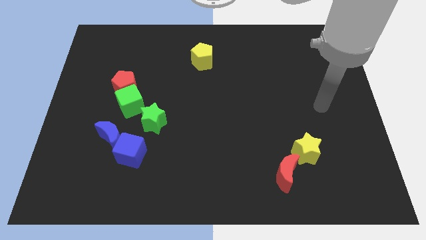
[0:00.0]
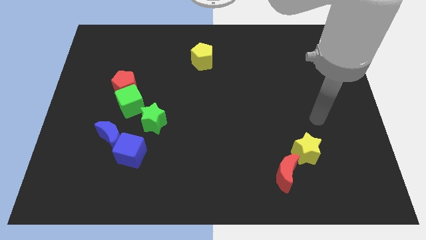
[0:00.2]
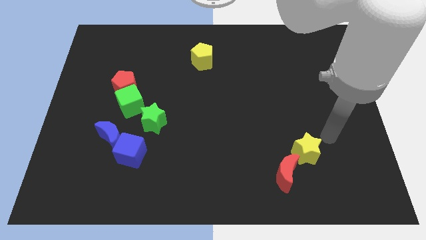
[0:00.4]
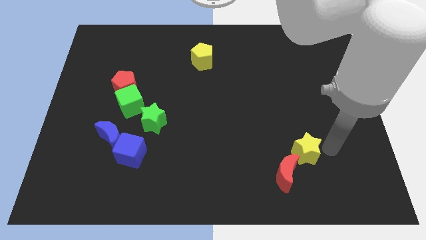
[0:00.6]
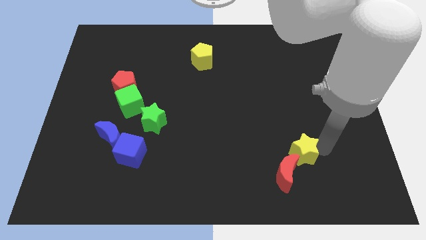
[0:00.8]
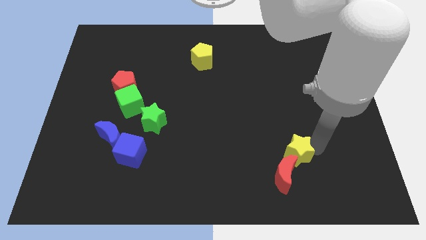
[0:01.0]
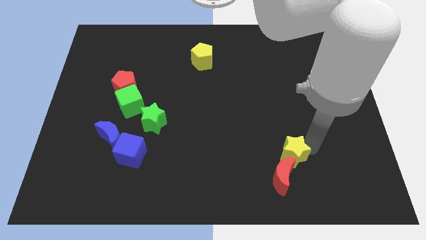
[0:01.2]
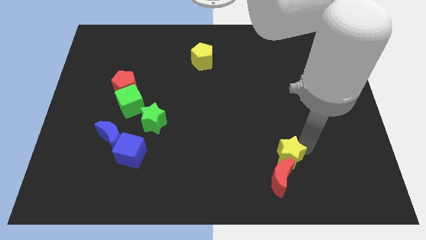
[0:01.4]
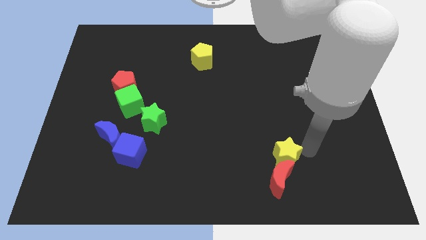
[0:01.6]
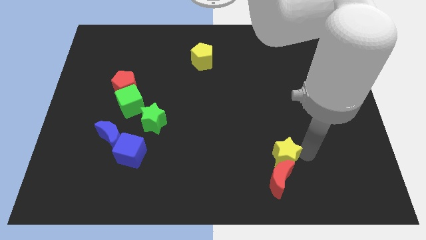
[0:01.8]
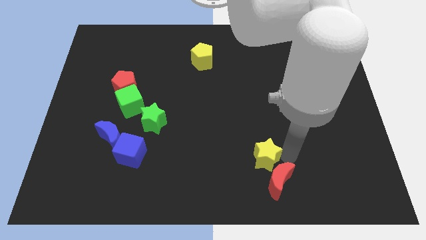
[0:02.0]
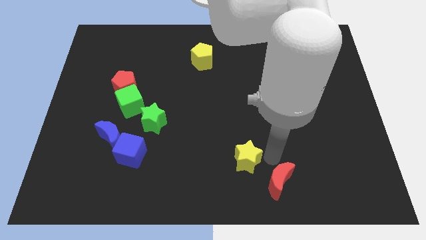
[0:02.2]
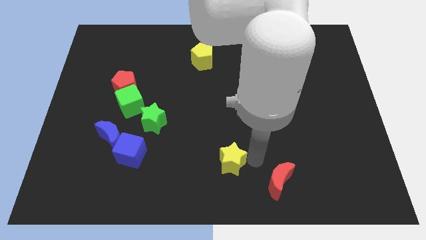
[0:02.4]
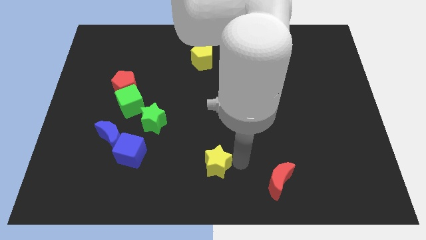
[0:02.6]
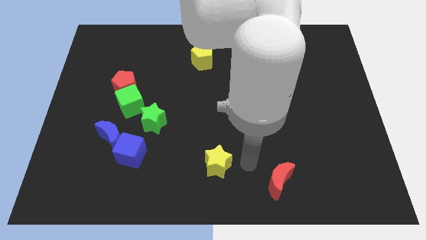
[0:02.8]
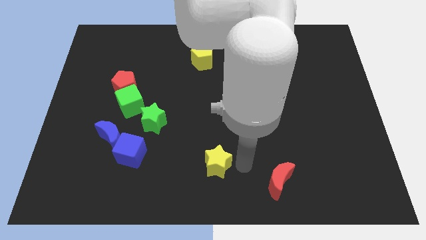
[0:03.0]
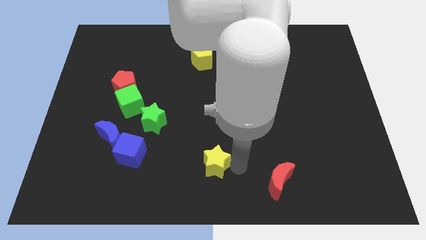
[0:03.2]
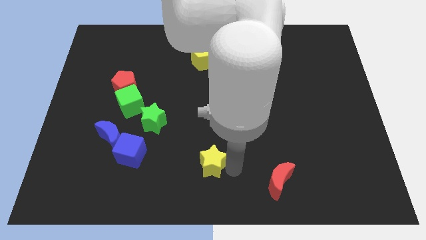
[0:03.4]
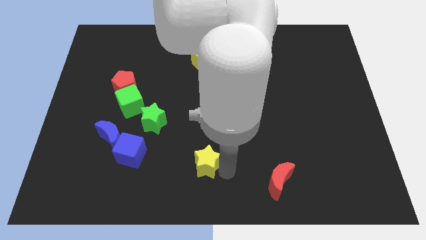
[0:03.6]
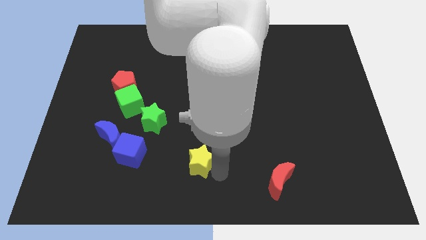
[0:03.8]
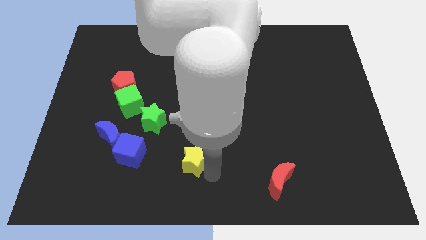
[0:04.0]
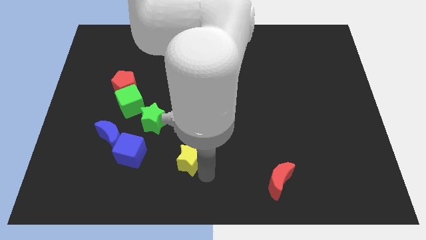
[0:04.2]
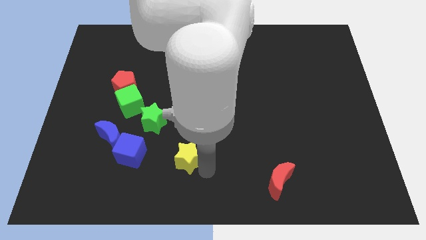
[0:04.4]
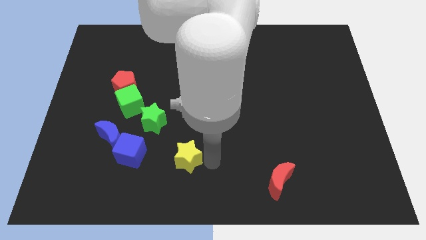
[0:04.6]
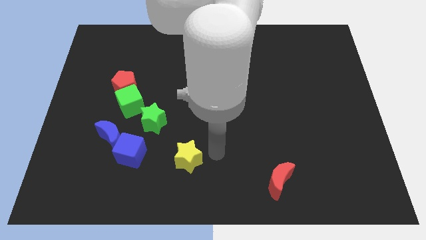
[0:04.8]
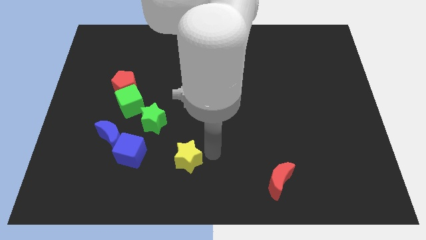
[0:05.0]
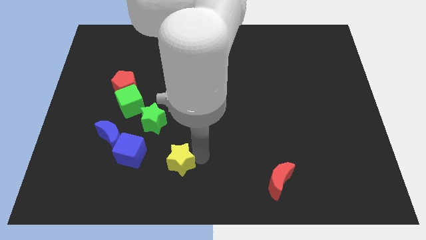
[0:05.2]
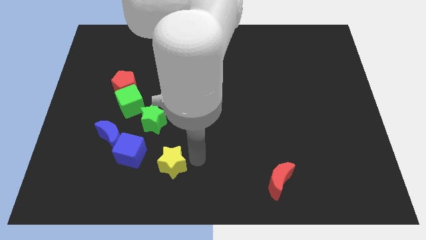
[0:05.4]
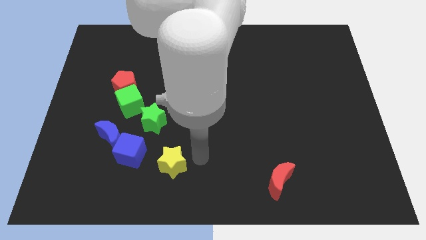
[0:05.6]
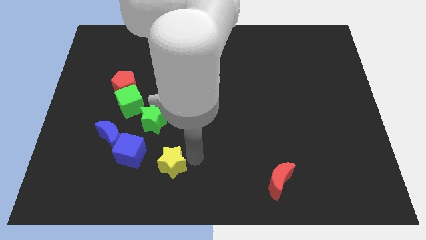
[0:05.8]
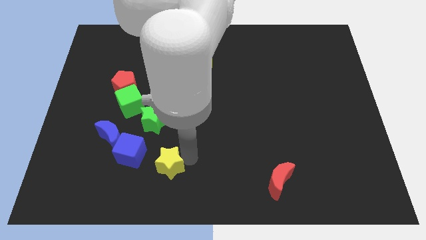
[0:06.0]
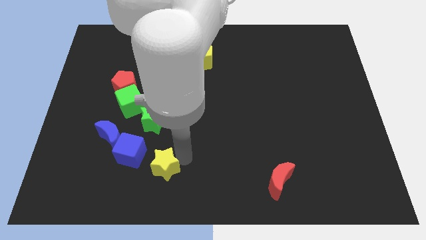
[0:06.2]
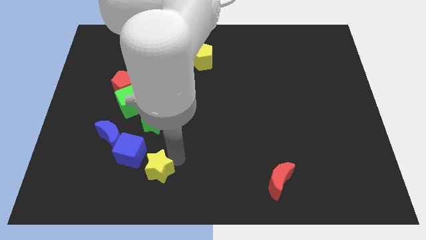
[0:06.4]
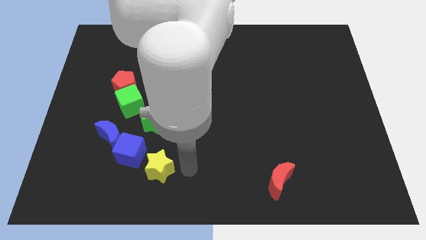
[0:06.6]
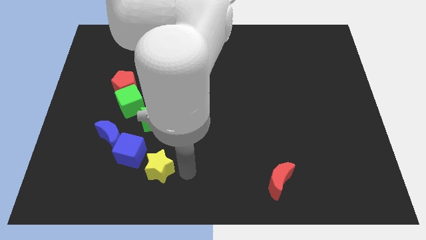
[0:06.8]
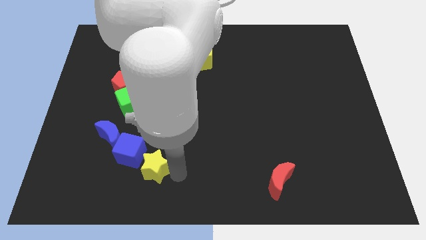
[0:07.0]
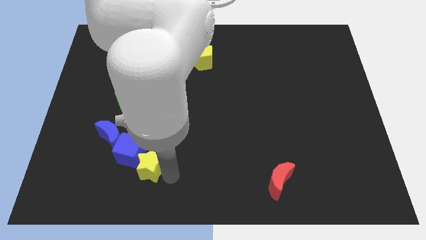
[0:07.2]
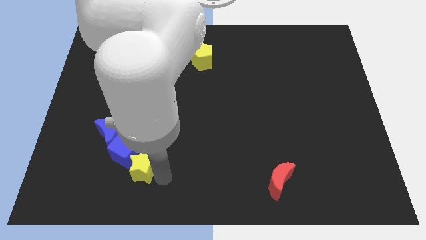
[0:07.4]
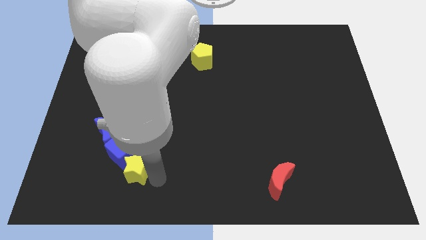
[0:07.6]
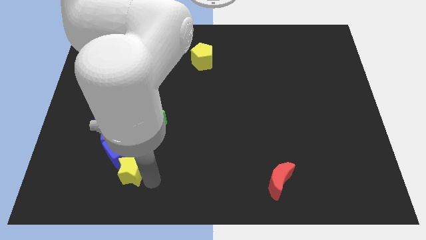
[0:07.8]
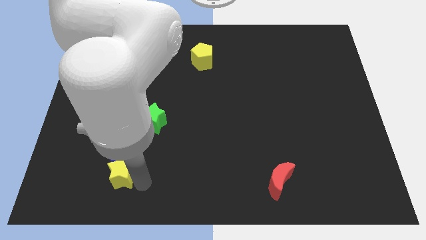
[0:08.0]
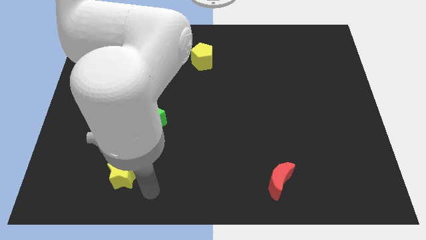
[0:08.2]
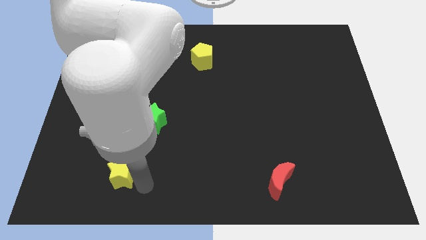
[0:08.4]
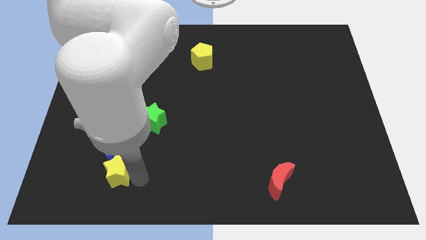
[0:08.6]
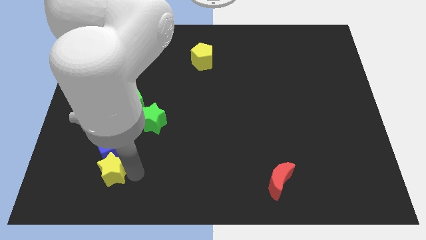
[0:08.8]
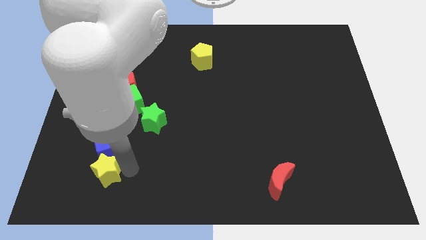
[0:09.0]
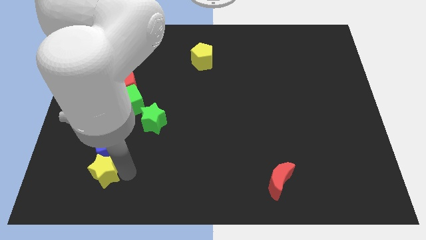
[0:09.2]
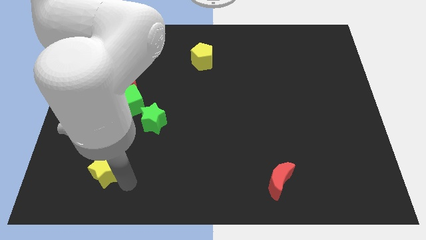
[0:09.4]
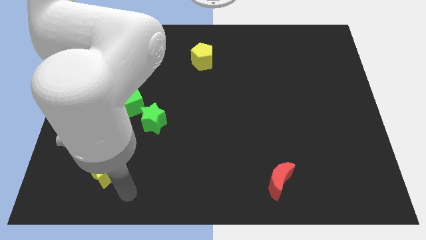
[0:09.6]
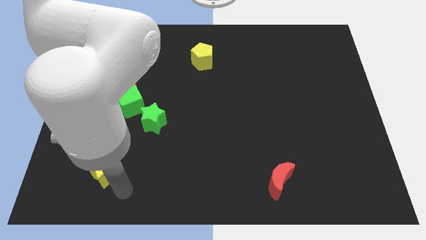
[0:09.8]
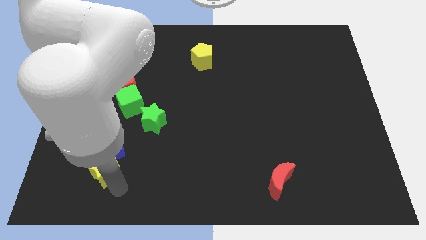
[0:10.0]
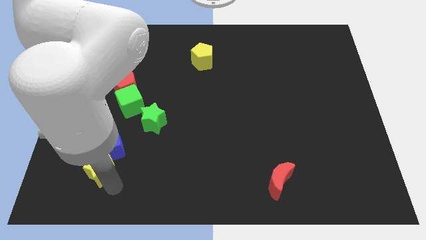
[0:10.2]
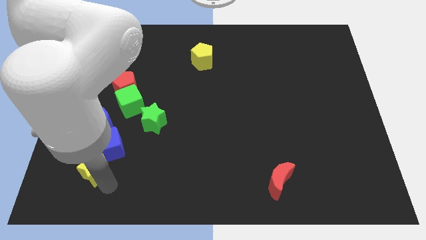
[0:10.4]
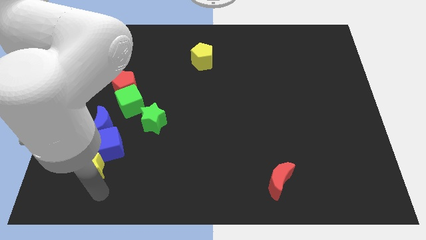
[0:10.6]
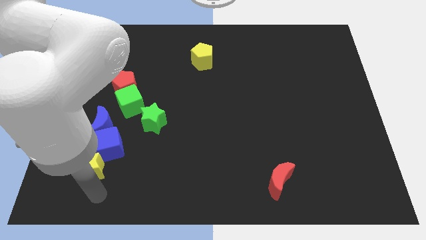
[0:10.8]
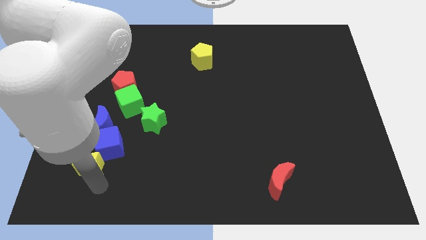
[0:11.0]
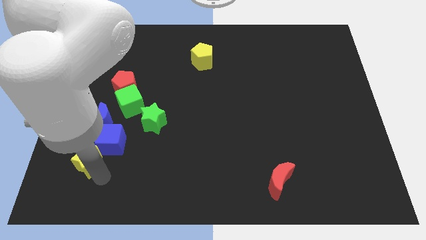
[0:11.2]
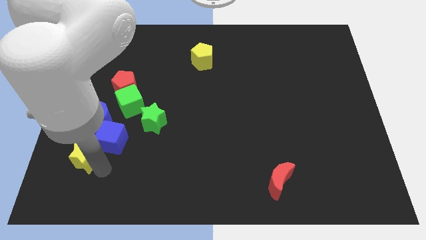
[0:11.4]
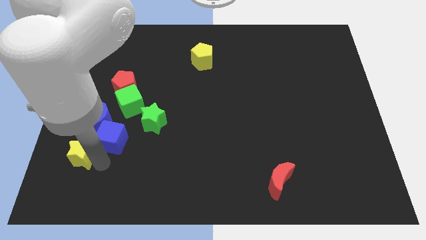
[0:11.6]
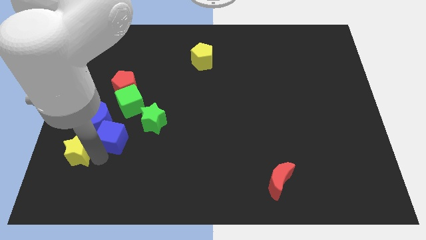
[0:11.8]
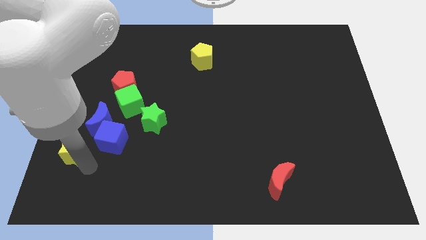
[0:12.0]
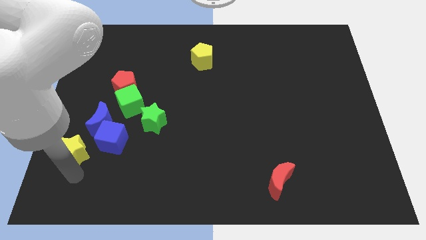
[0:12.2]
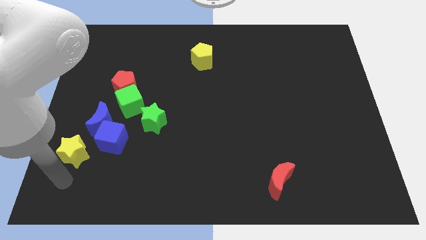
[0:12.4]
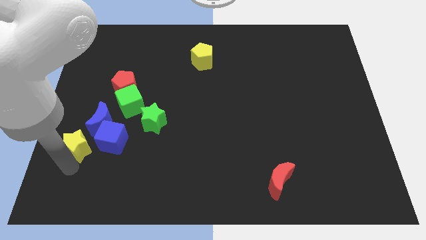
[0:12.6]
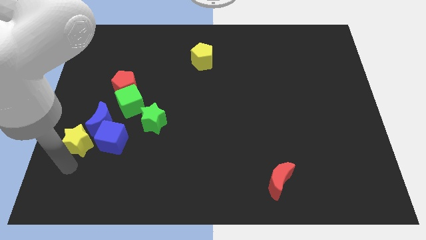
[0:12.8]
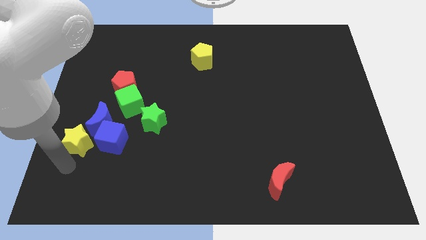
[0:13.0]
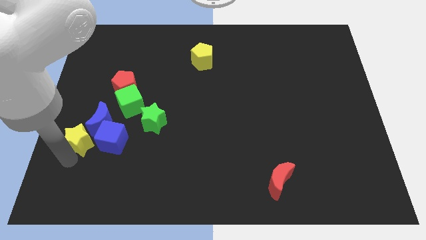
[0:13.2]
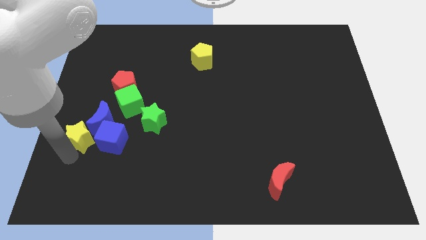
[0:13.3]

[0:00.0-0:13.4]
push the yellow star to the top left of the blue cube
